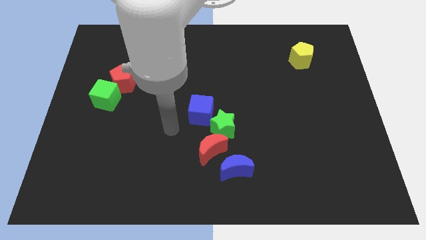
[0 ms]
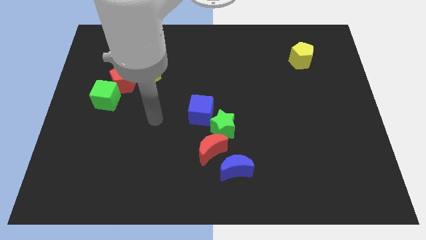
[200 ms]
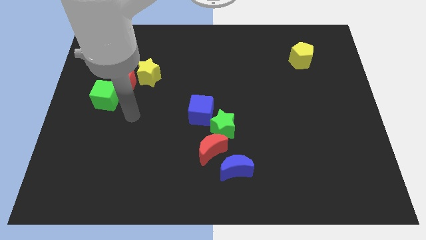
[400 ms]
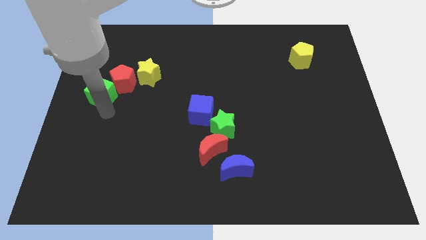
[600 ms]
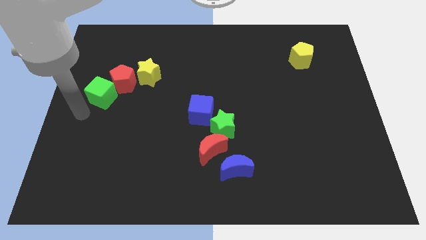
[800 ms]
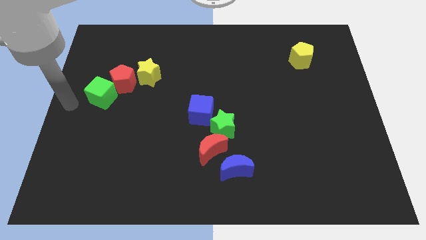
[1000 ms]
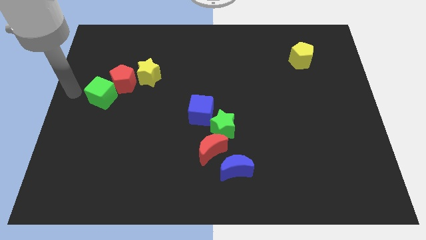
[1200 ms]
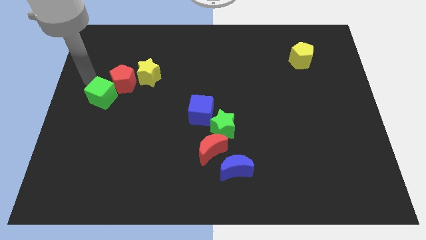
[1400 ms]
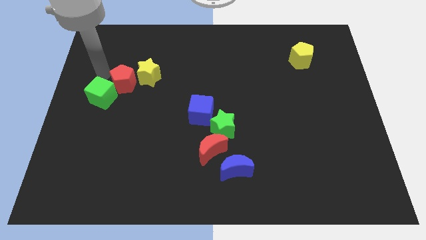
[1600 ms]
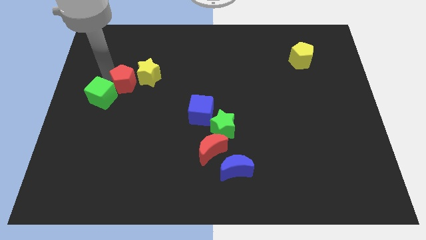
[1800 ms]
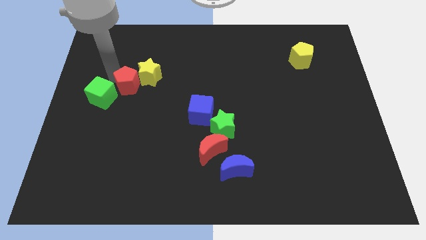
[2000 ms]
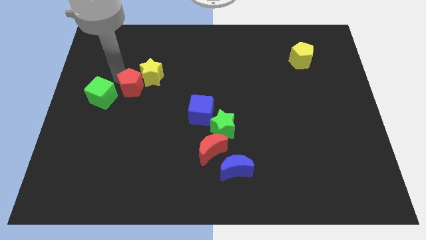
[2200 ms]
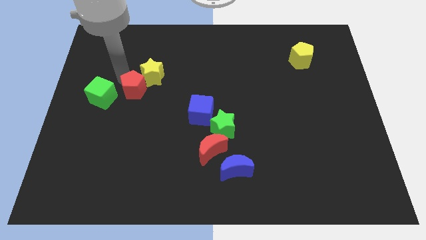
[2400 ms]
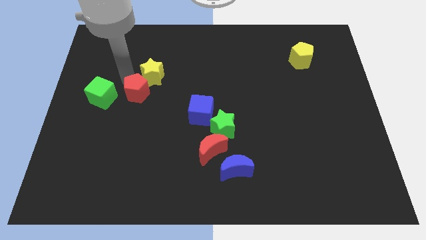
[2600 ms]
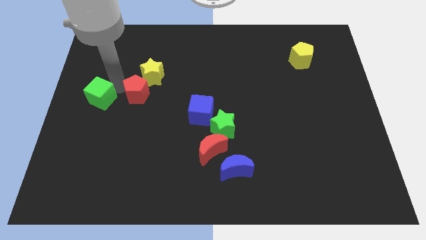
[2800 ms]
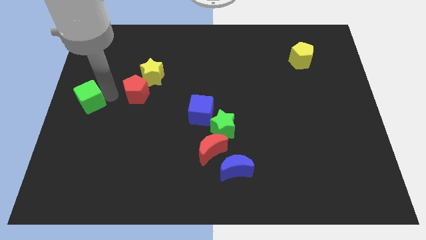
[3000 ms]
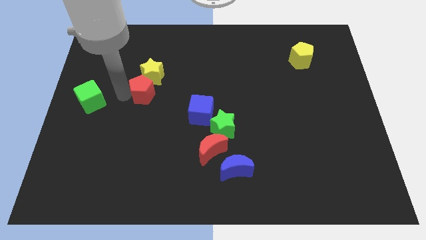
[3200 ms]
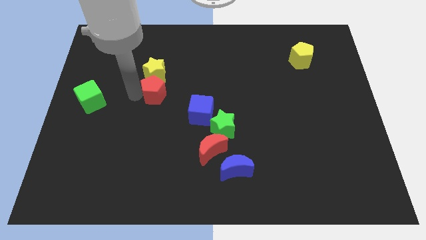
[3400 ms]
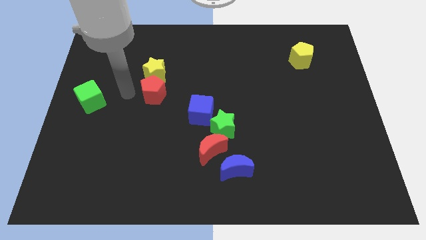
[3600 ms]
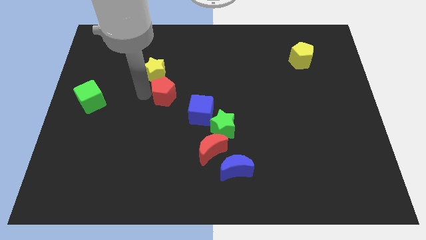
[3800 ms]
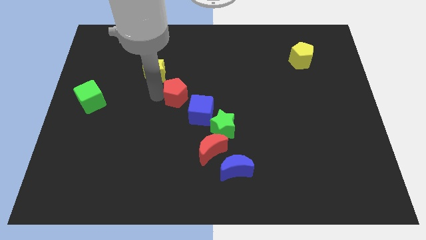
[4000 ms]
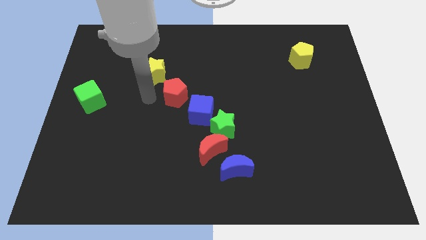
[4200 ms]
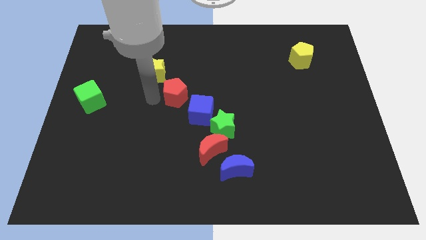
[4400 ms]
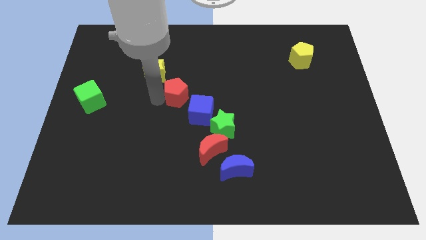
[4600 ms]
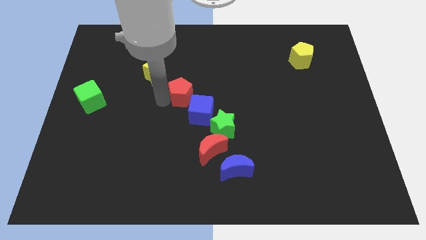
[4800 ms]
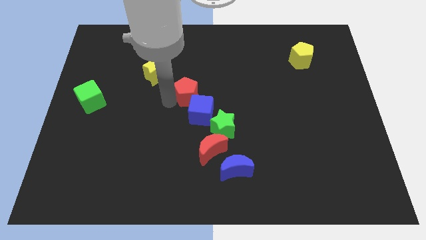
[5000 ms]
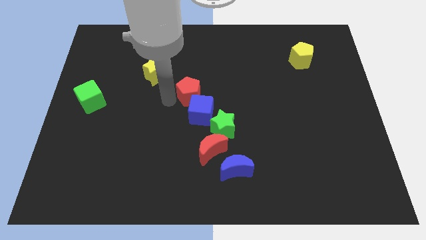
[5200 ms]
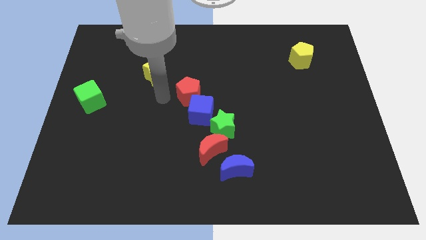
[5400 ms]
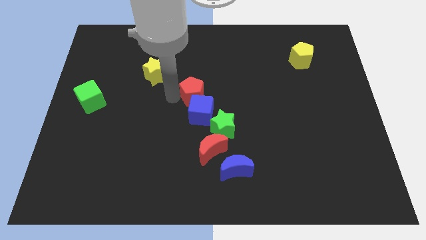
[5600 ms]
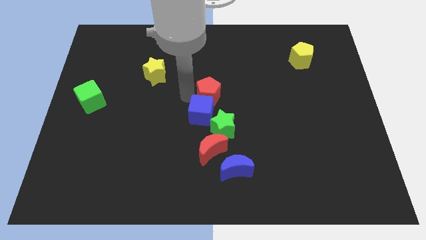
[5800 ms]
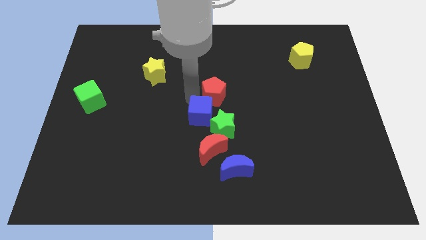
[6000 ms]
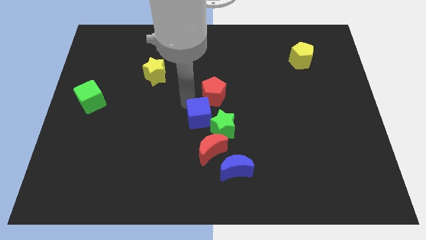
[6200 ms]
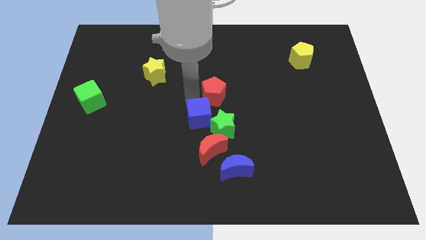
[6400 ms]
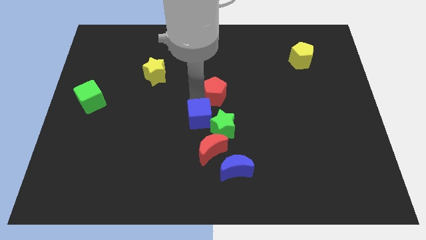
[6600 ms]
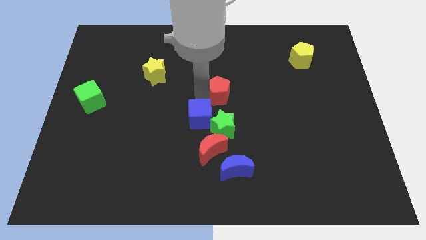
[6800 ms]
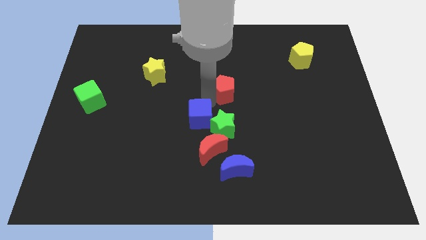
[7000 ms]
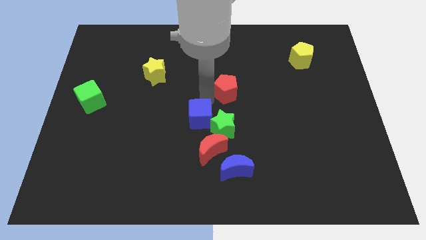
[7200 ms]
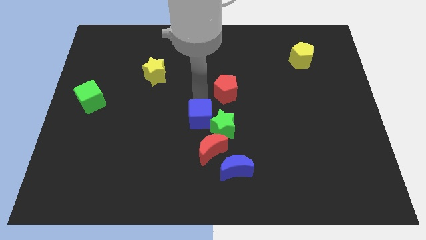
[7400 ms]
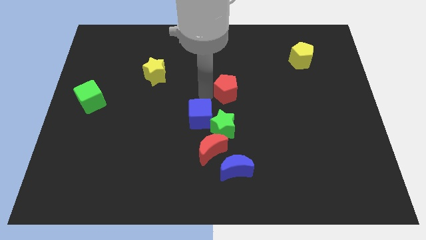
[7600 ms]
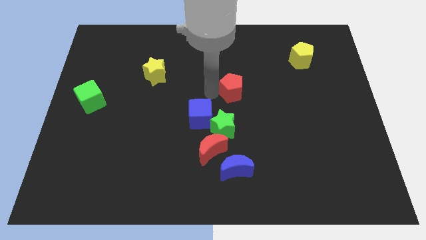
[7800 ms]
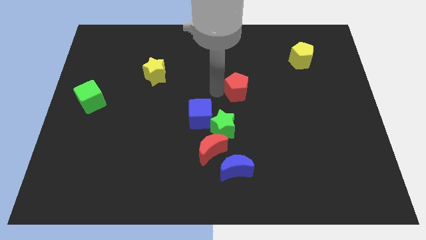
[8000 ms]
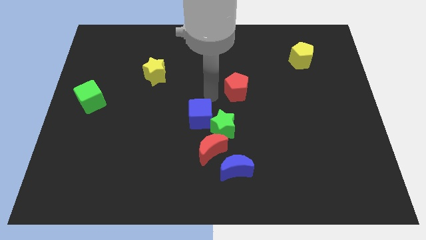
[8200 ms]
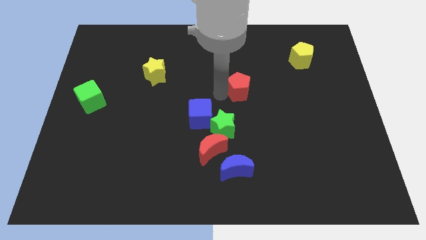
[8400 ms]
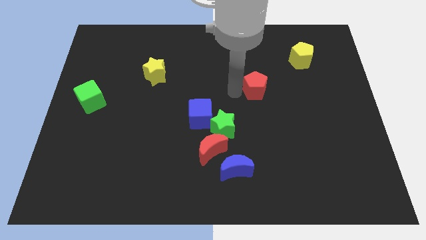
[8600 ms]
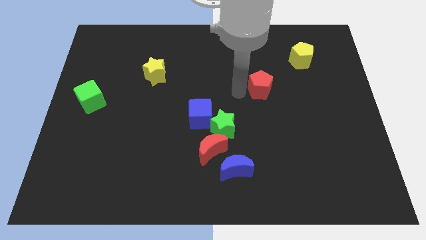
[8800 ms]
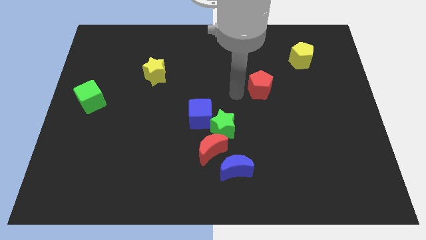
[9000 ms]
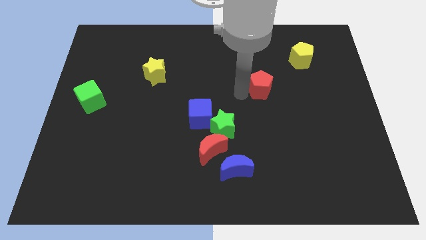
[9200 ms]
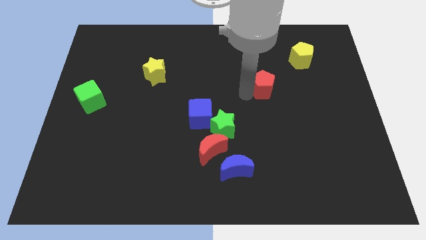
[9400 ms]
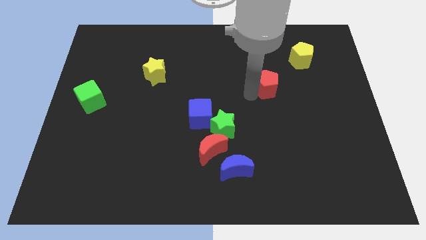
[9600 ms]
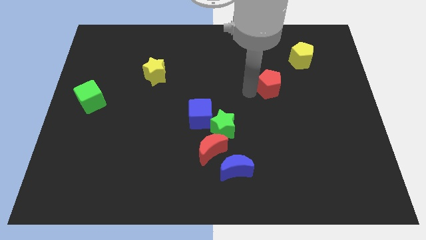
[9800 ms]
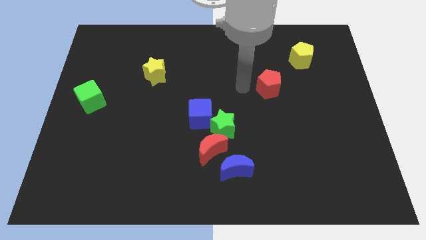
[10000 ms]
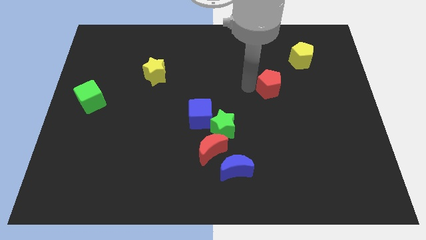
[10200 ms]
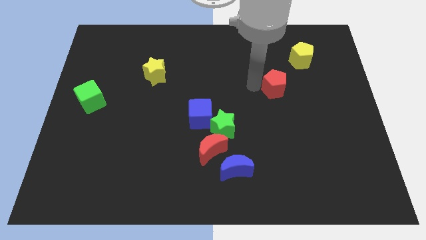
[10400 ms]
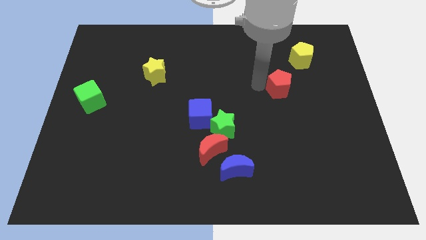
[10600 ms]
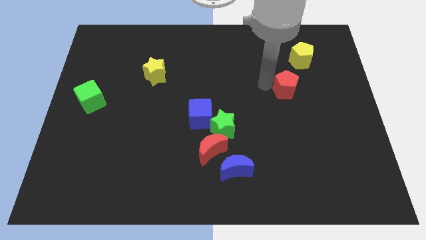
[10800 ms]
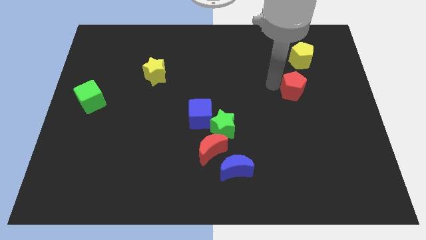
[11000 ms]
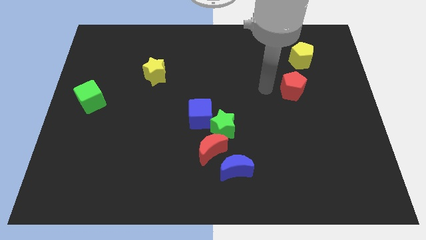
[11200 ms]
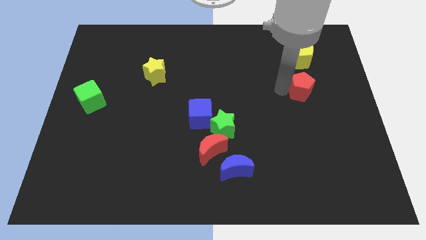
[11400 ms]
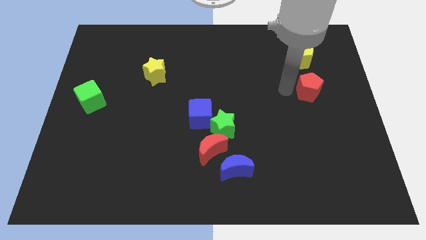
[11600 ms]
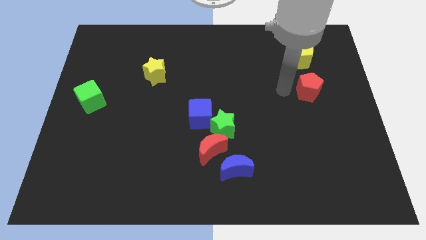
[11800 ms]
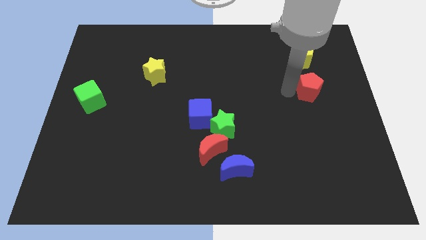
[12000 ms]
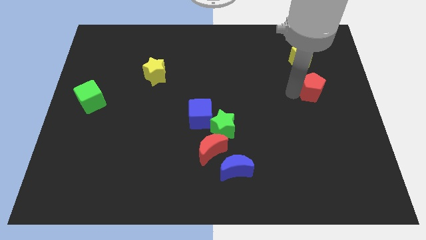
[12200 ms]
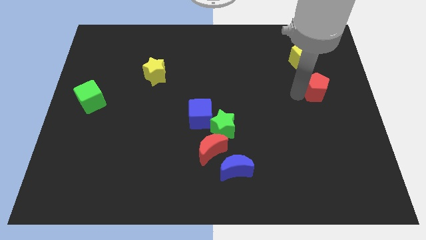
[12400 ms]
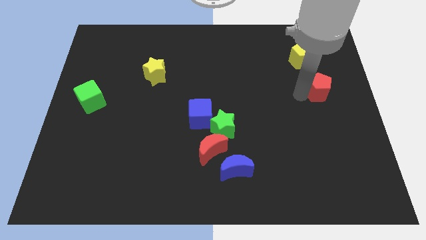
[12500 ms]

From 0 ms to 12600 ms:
put the red pentagon to the right side of the board

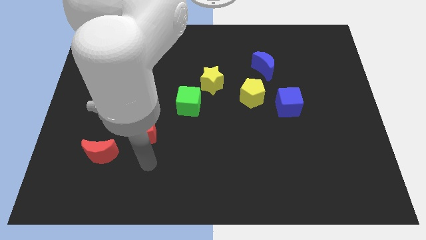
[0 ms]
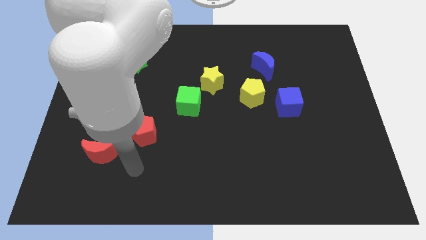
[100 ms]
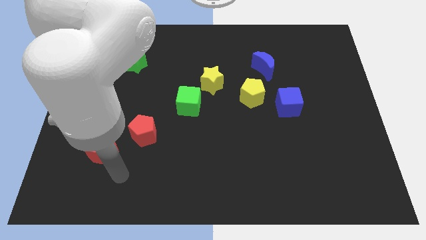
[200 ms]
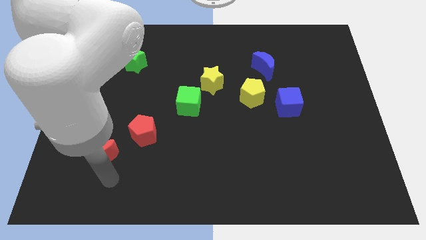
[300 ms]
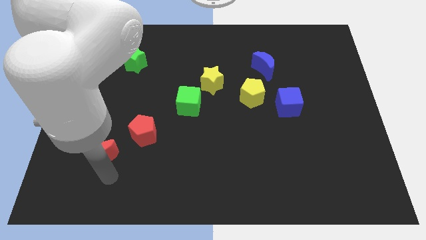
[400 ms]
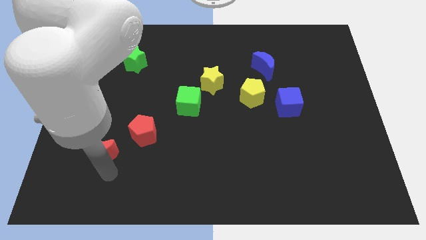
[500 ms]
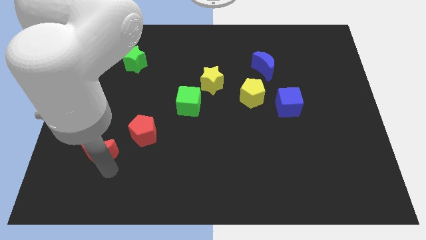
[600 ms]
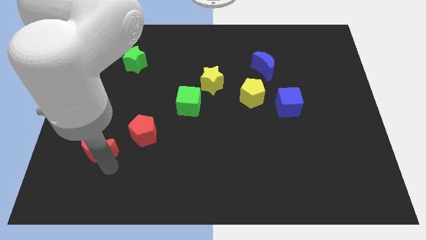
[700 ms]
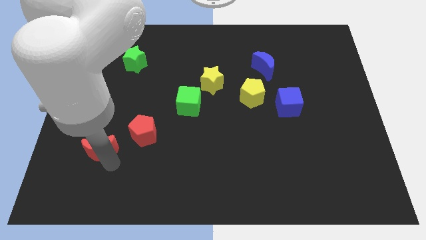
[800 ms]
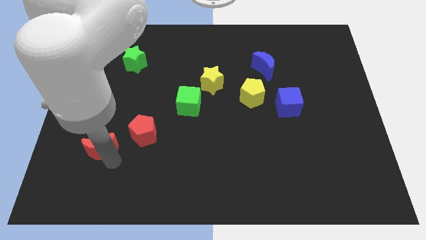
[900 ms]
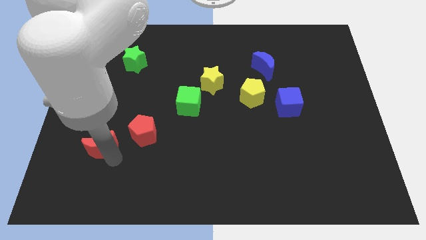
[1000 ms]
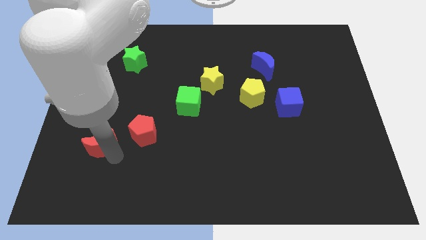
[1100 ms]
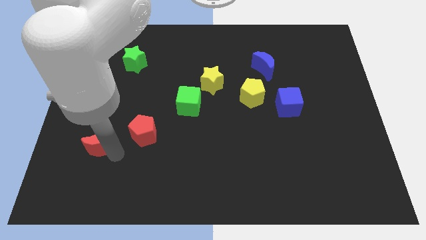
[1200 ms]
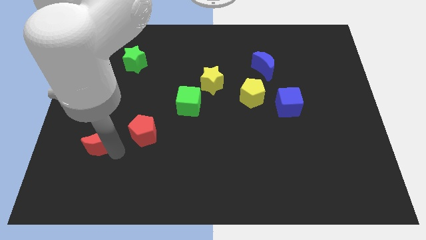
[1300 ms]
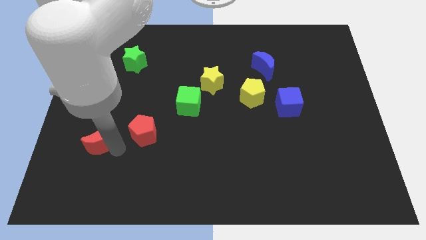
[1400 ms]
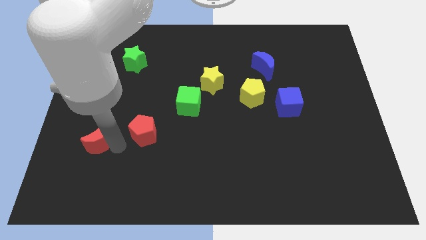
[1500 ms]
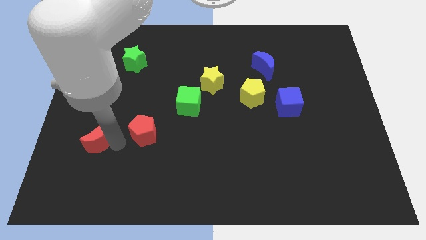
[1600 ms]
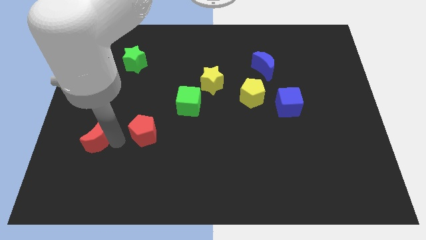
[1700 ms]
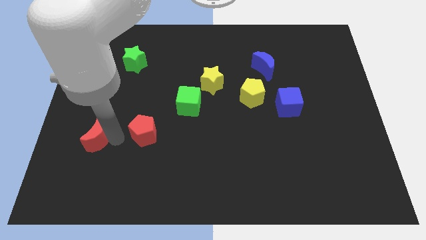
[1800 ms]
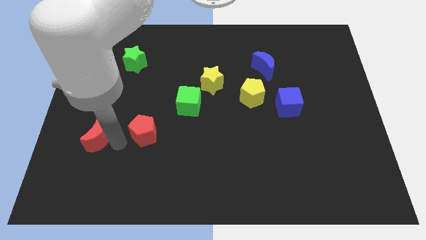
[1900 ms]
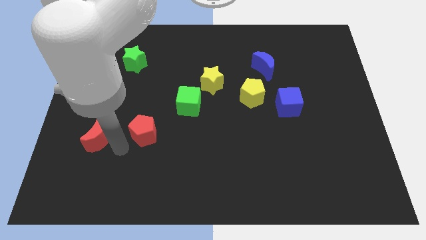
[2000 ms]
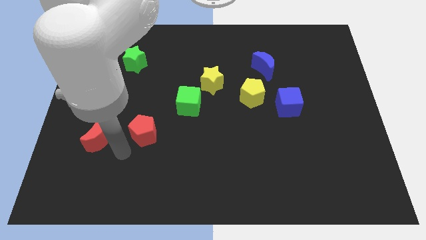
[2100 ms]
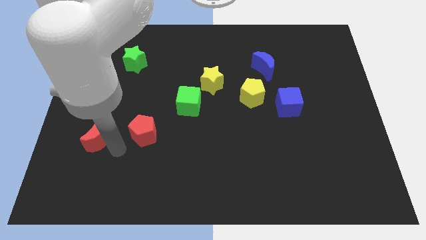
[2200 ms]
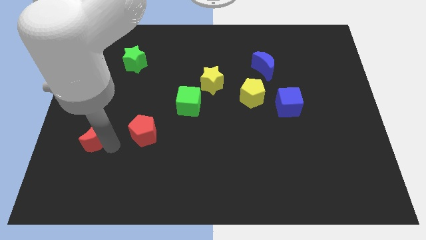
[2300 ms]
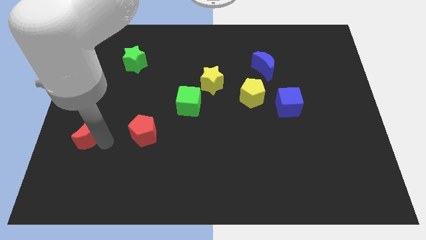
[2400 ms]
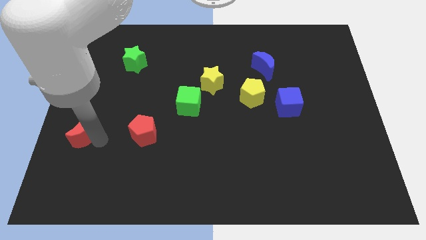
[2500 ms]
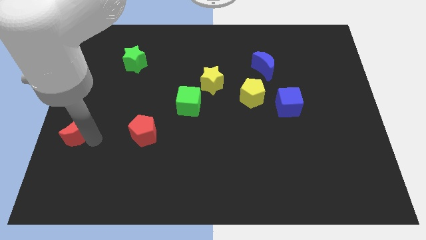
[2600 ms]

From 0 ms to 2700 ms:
push the red moon to the left side
